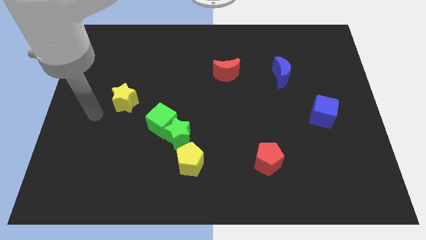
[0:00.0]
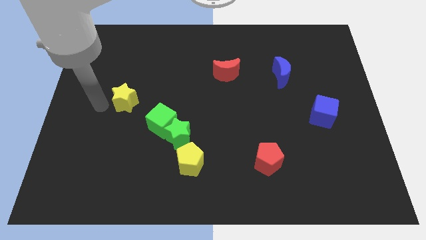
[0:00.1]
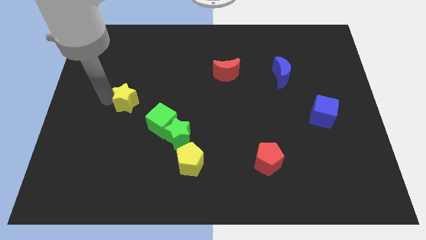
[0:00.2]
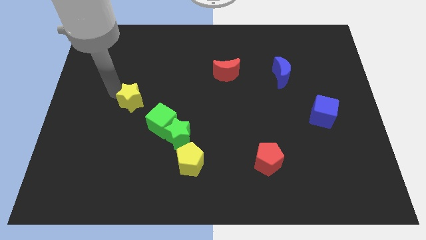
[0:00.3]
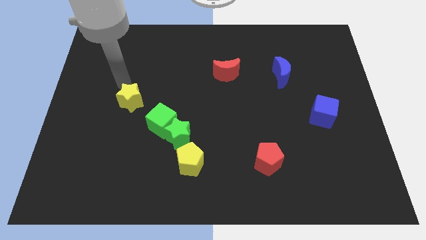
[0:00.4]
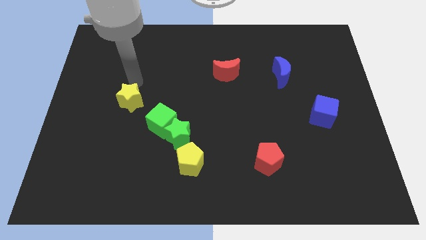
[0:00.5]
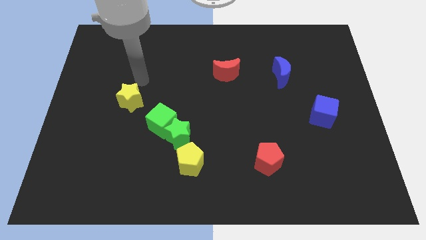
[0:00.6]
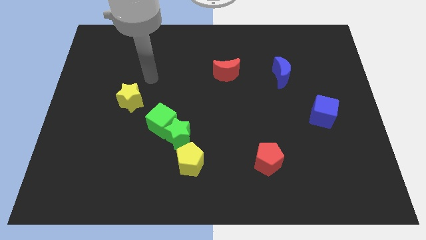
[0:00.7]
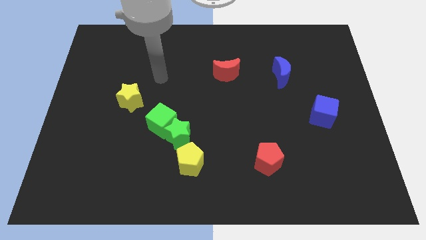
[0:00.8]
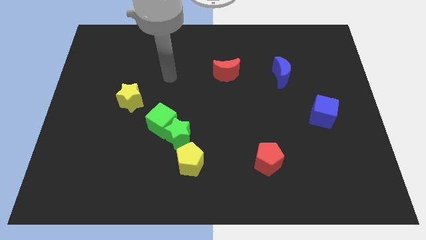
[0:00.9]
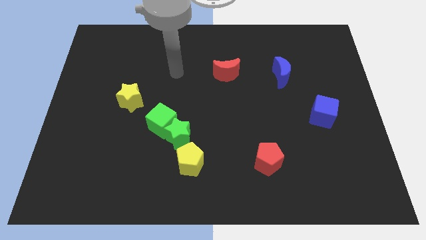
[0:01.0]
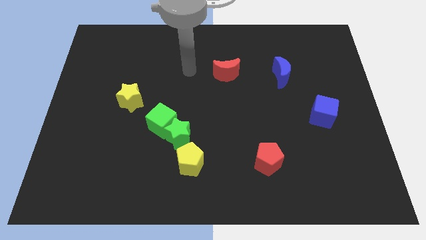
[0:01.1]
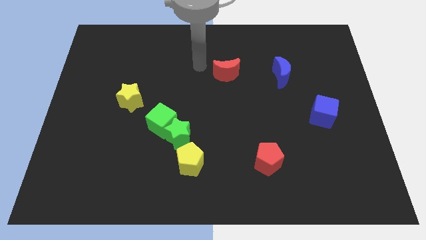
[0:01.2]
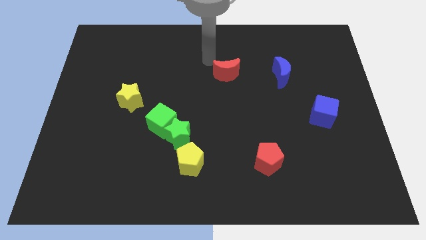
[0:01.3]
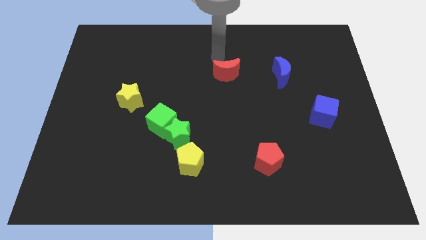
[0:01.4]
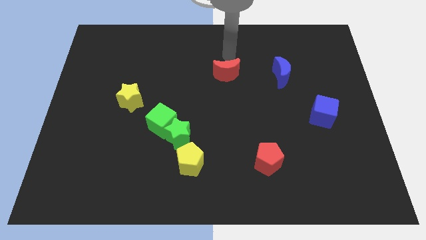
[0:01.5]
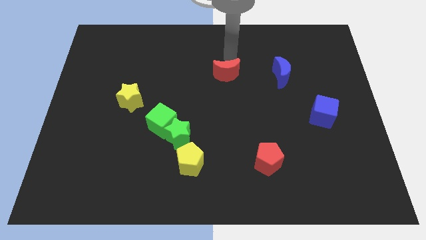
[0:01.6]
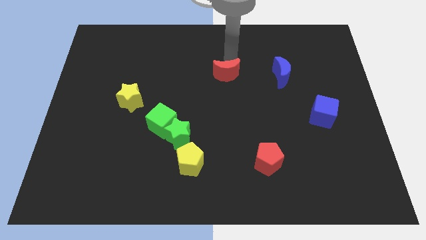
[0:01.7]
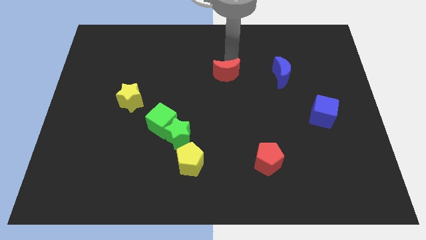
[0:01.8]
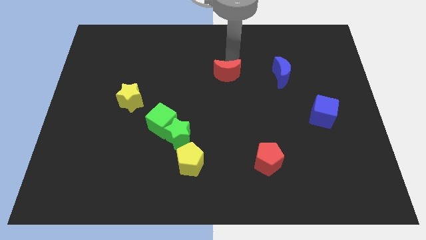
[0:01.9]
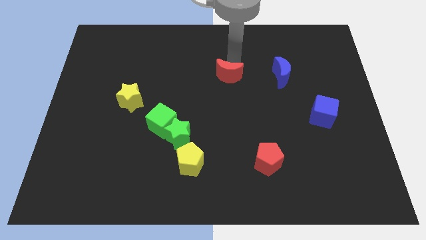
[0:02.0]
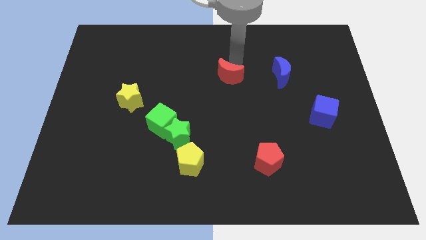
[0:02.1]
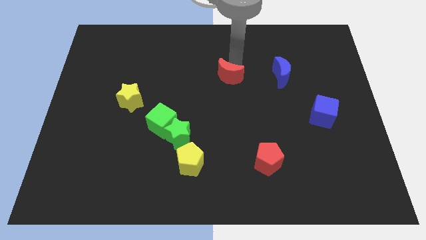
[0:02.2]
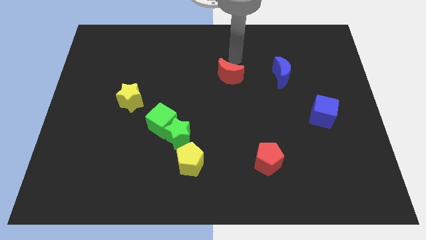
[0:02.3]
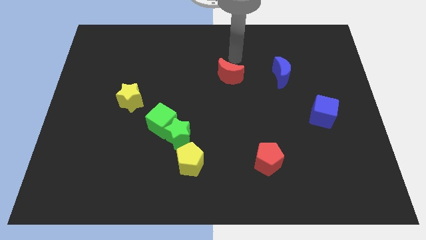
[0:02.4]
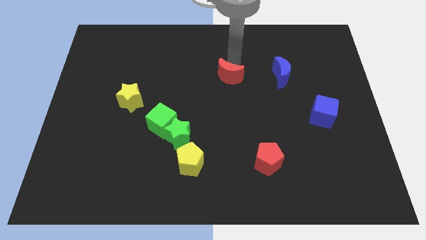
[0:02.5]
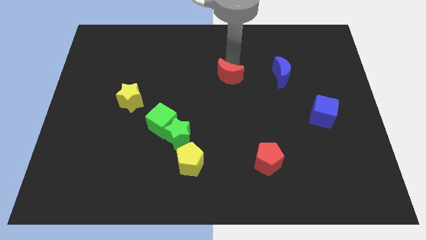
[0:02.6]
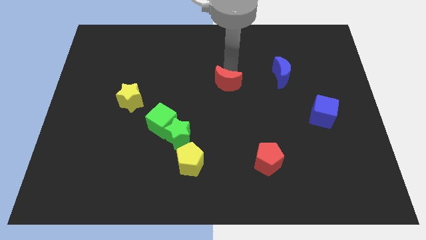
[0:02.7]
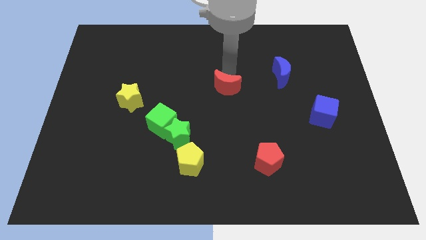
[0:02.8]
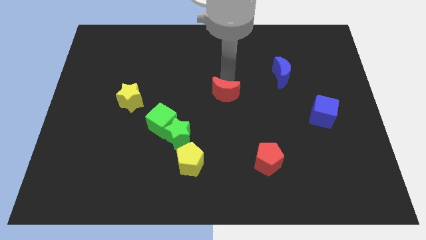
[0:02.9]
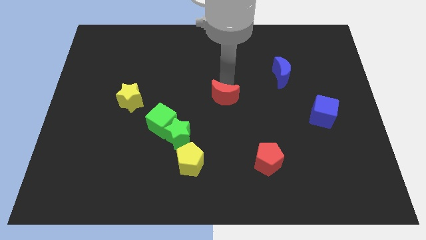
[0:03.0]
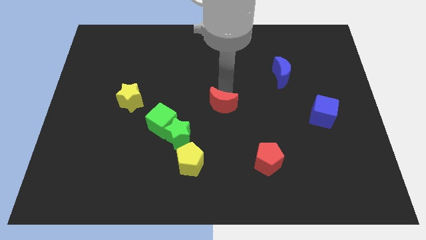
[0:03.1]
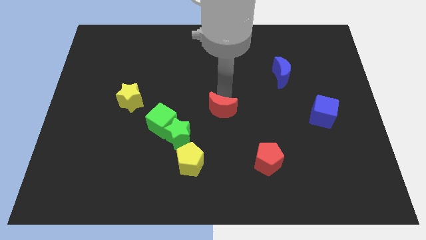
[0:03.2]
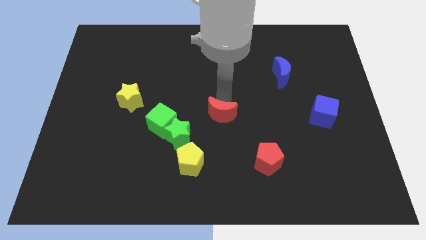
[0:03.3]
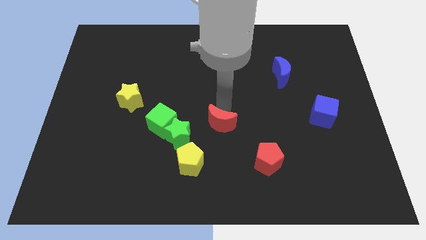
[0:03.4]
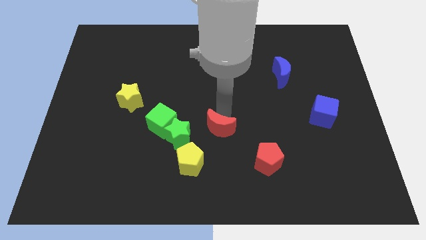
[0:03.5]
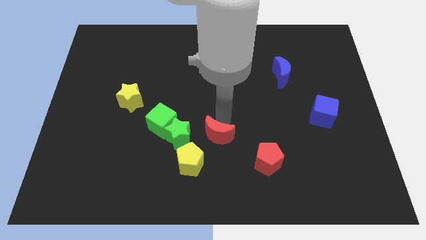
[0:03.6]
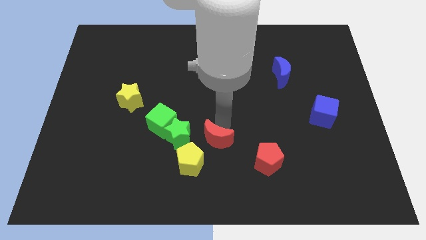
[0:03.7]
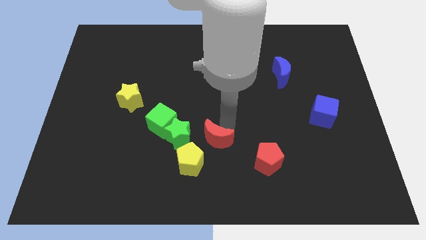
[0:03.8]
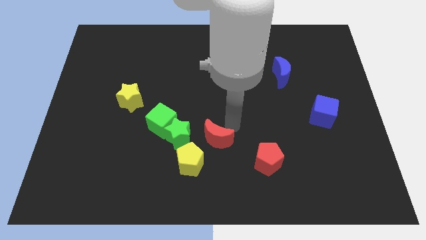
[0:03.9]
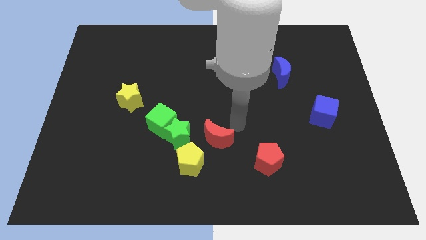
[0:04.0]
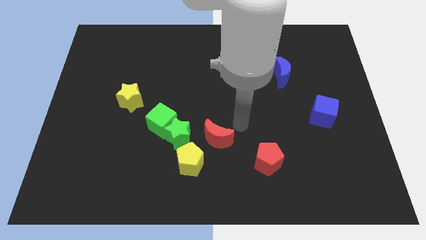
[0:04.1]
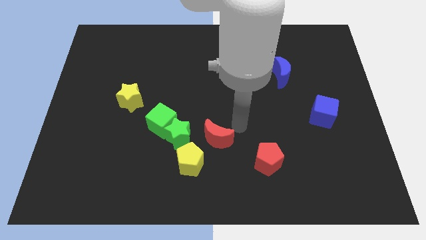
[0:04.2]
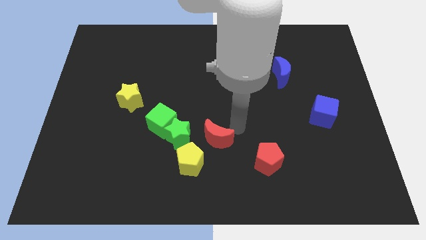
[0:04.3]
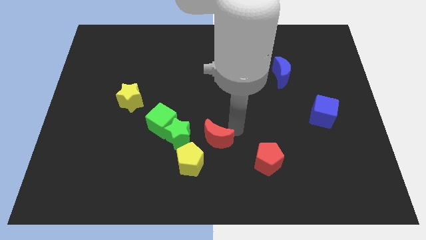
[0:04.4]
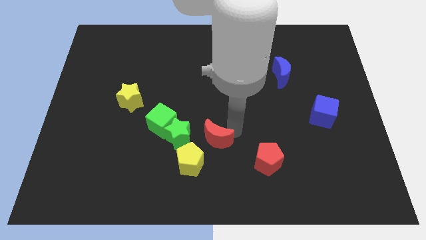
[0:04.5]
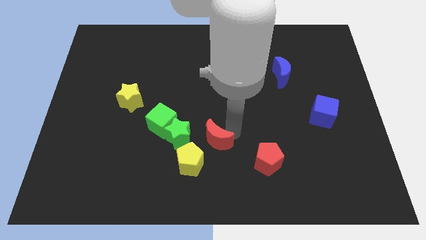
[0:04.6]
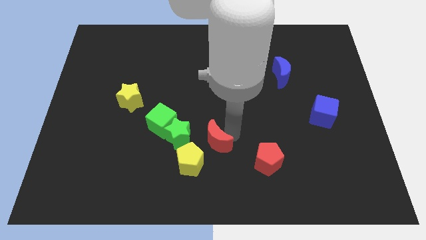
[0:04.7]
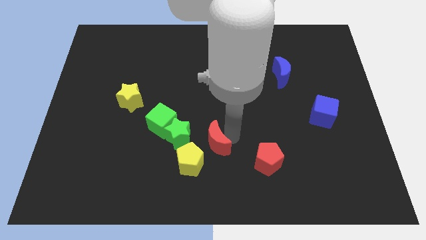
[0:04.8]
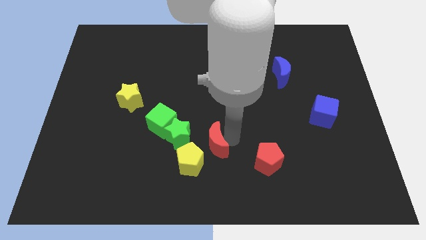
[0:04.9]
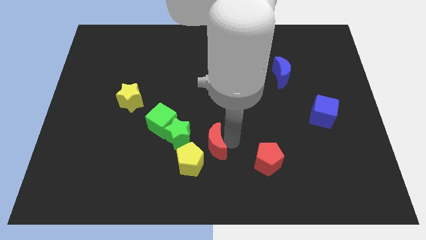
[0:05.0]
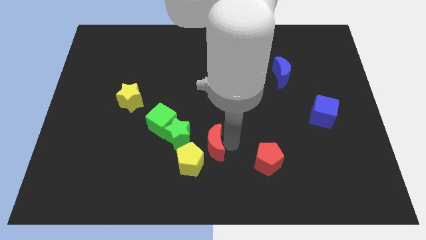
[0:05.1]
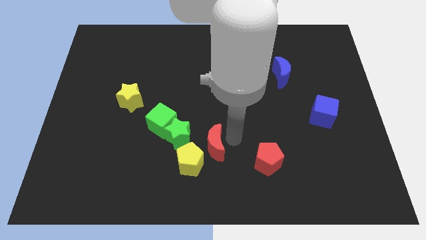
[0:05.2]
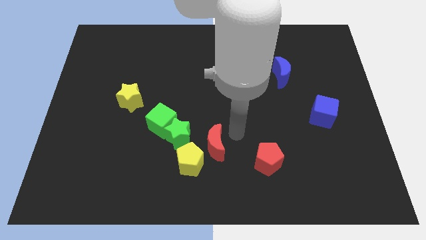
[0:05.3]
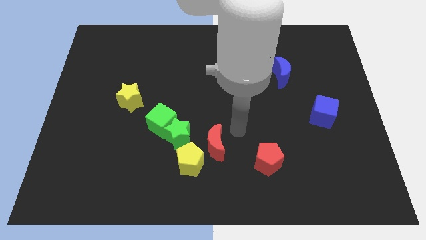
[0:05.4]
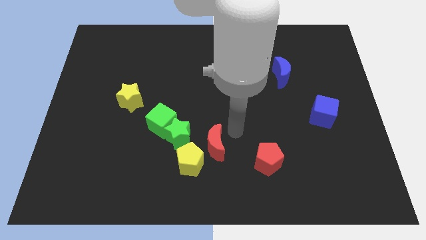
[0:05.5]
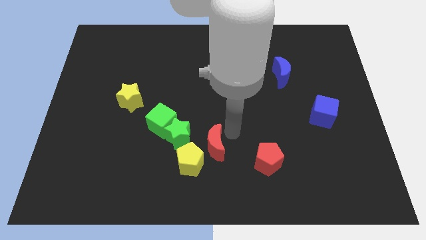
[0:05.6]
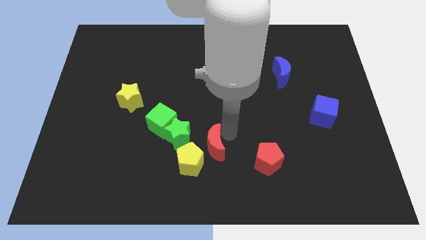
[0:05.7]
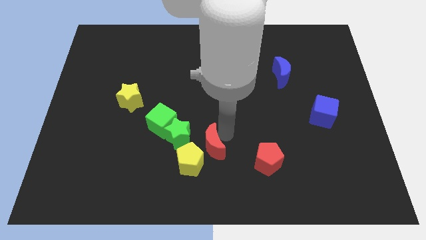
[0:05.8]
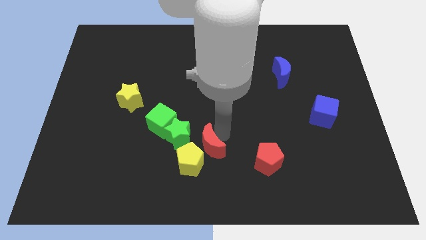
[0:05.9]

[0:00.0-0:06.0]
move the red moon close to the yellow pentagon

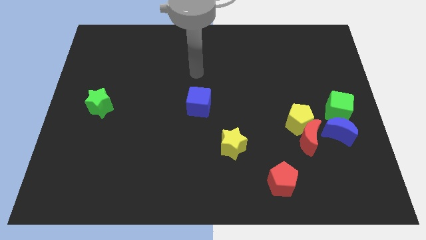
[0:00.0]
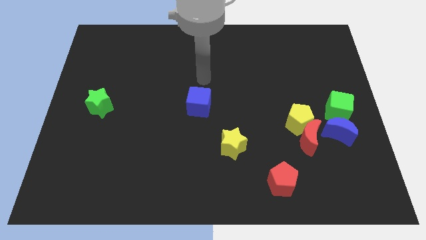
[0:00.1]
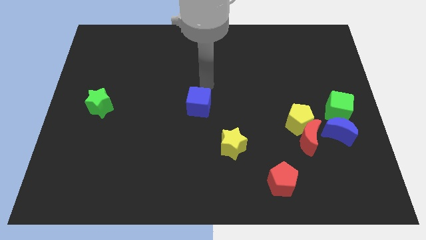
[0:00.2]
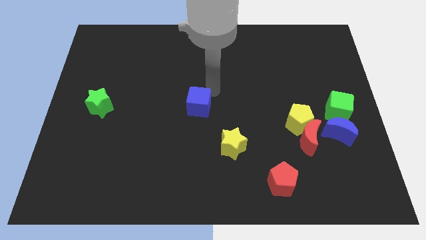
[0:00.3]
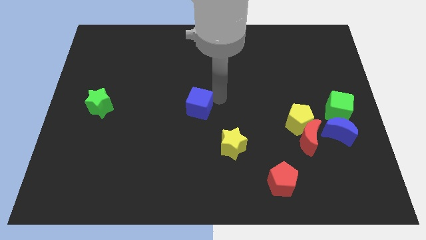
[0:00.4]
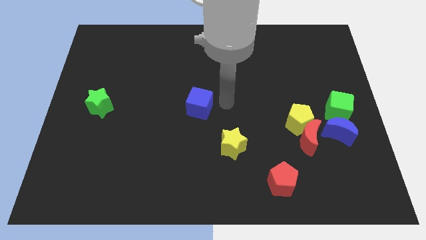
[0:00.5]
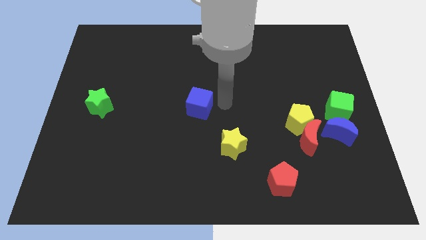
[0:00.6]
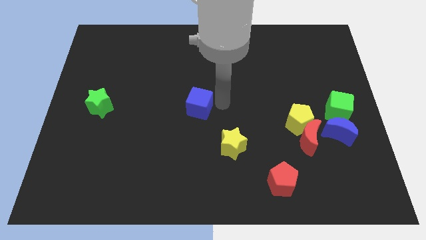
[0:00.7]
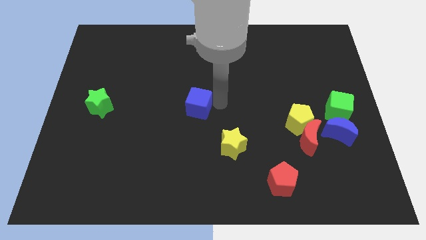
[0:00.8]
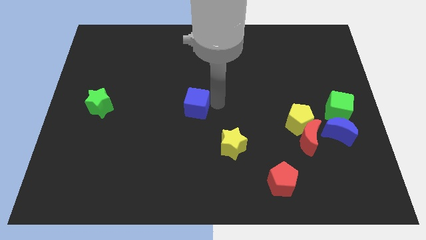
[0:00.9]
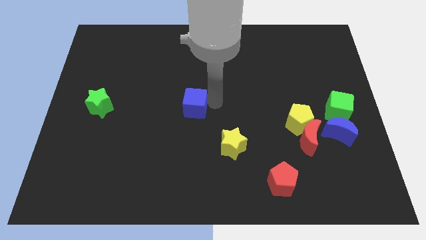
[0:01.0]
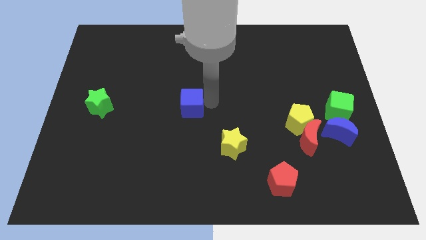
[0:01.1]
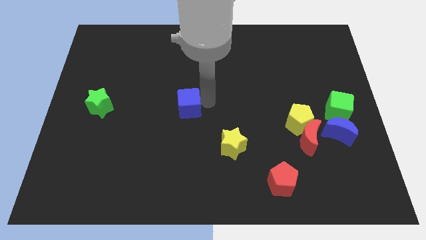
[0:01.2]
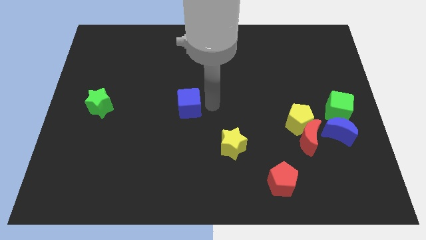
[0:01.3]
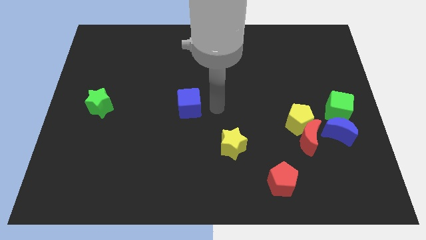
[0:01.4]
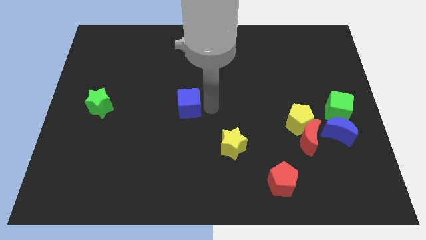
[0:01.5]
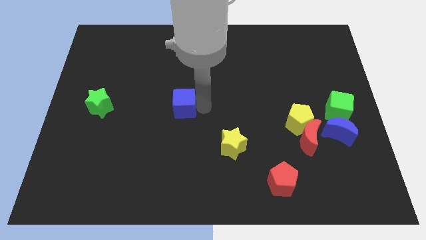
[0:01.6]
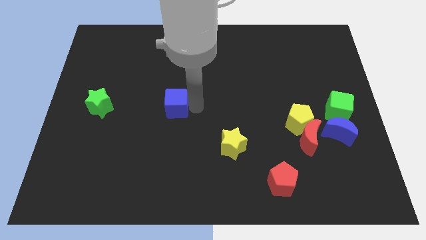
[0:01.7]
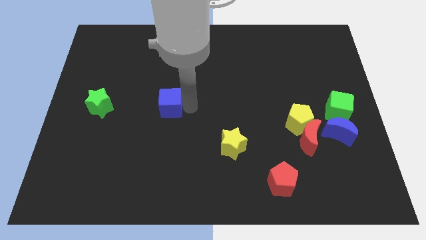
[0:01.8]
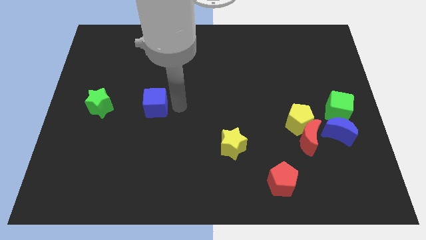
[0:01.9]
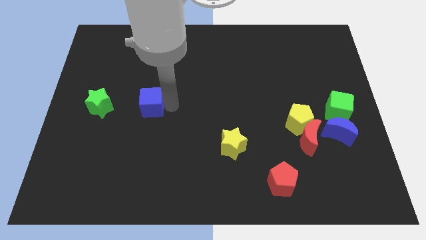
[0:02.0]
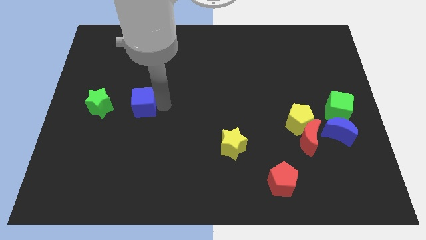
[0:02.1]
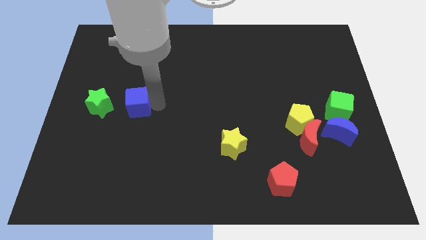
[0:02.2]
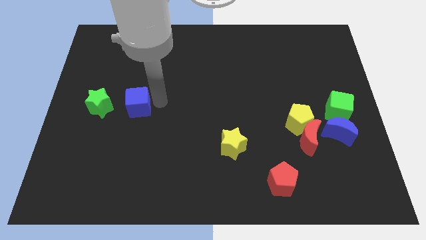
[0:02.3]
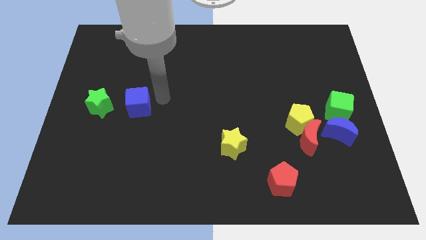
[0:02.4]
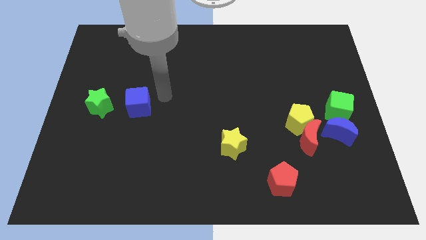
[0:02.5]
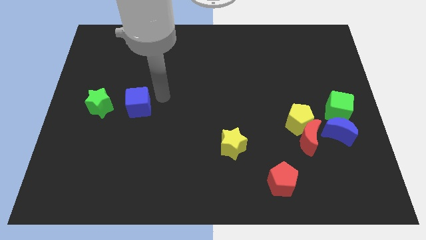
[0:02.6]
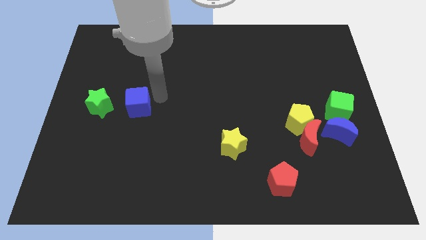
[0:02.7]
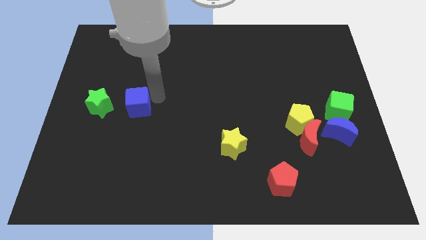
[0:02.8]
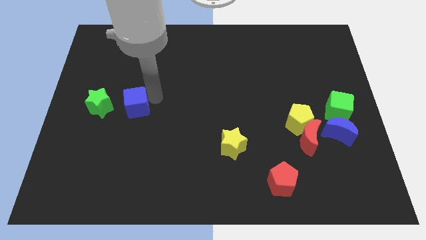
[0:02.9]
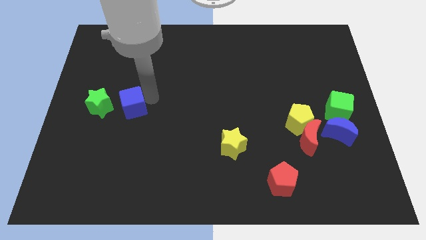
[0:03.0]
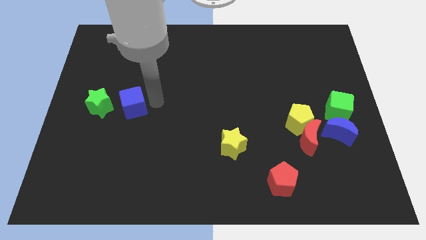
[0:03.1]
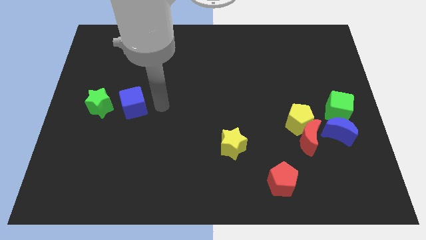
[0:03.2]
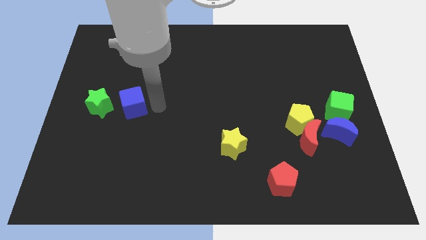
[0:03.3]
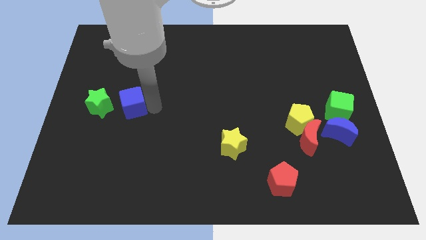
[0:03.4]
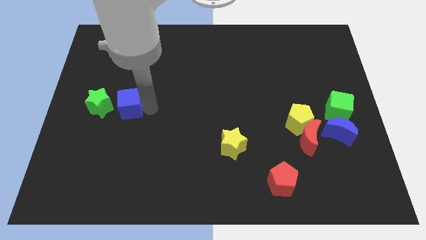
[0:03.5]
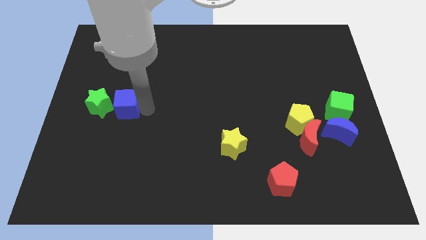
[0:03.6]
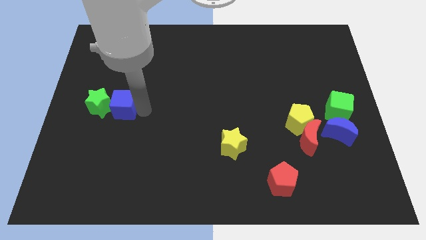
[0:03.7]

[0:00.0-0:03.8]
slide the blue cube to the green star
